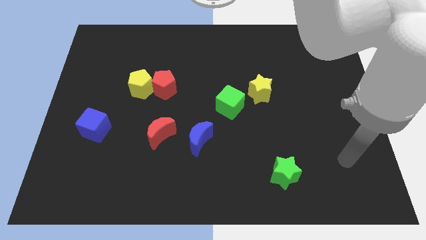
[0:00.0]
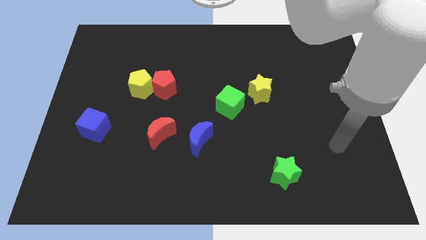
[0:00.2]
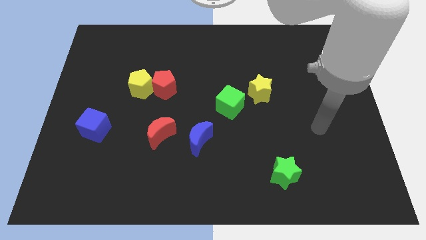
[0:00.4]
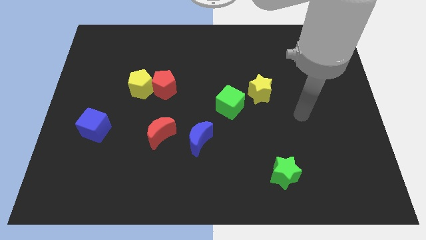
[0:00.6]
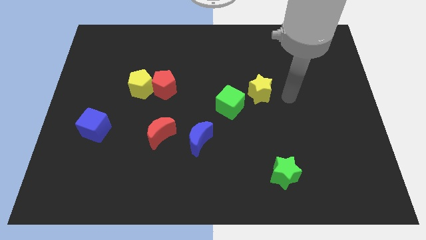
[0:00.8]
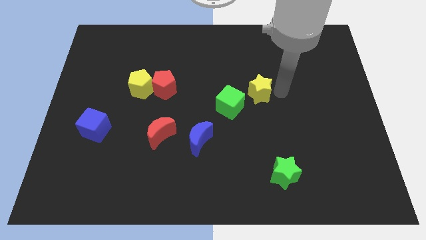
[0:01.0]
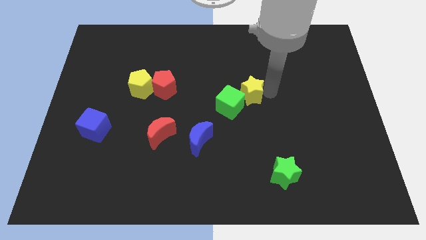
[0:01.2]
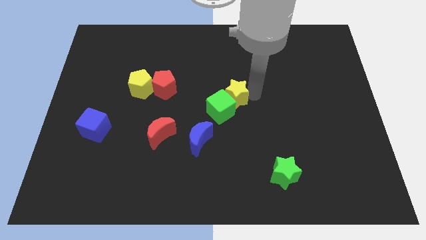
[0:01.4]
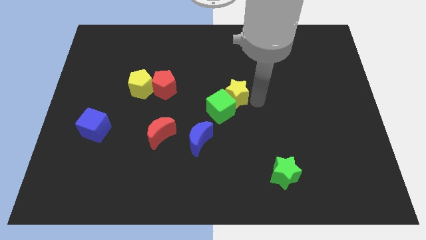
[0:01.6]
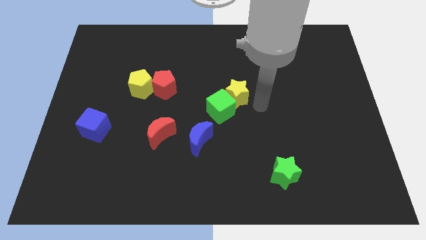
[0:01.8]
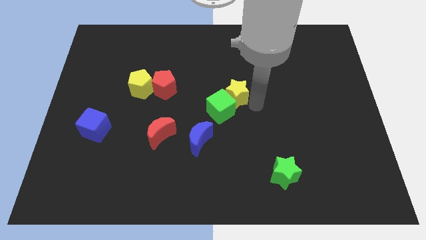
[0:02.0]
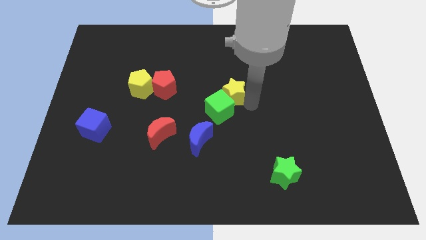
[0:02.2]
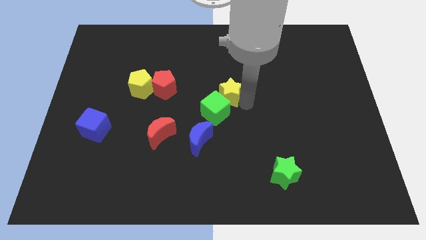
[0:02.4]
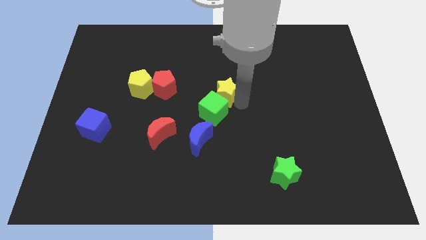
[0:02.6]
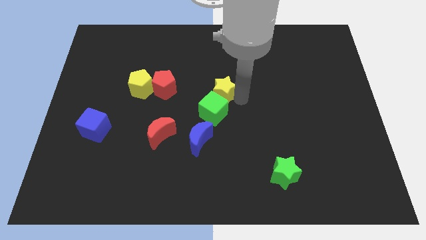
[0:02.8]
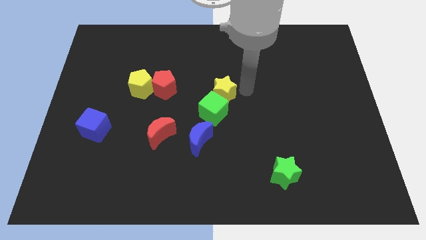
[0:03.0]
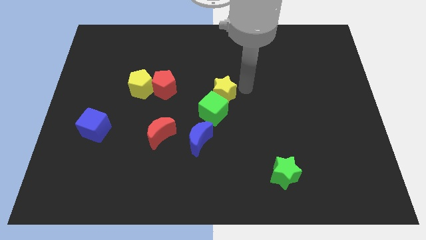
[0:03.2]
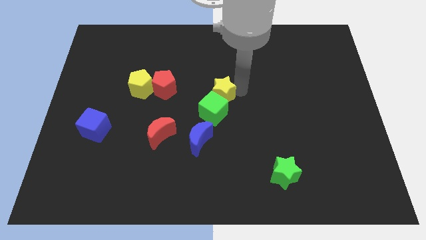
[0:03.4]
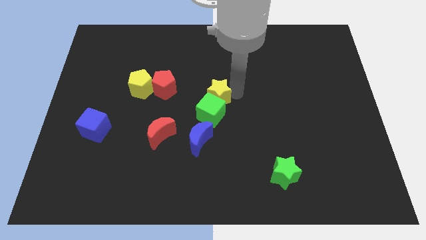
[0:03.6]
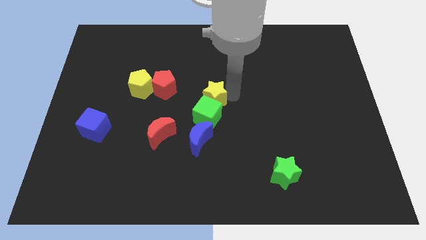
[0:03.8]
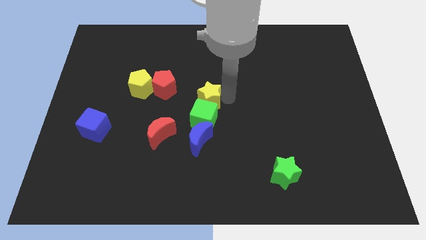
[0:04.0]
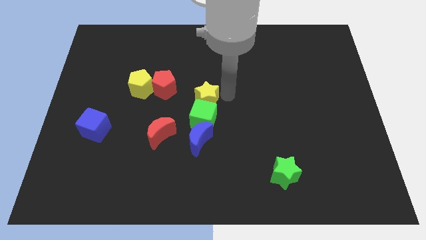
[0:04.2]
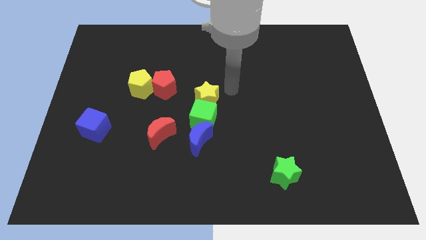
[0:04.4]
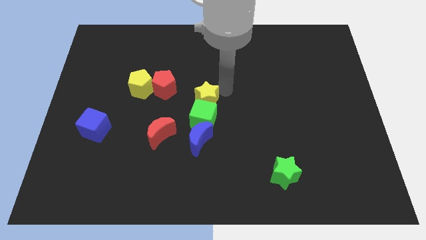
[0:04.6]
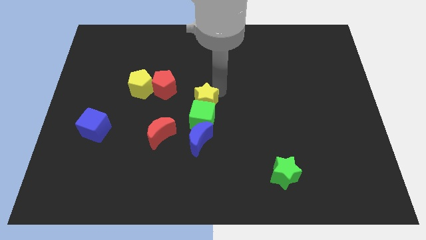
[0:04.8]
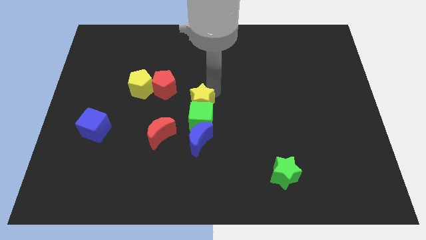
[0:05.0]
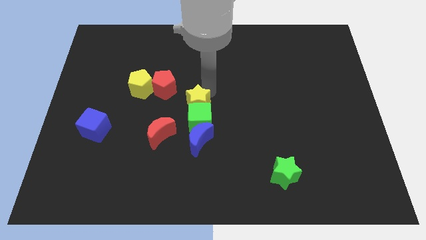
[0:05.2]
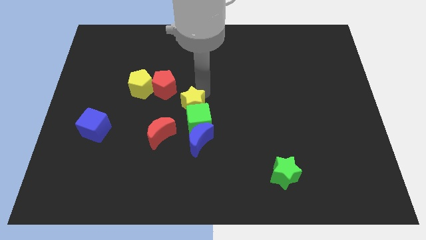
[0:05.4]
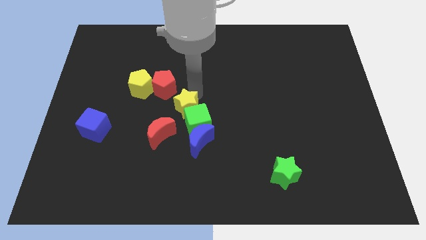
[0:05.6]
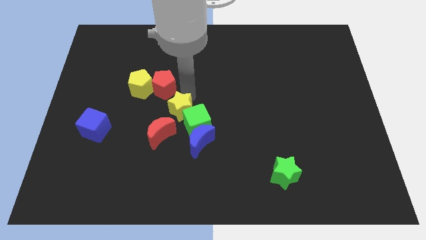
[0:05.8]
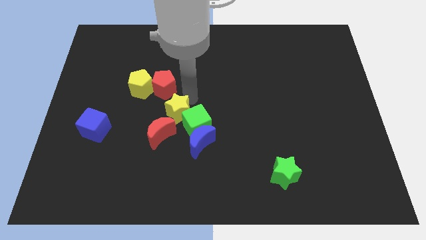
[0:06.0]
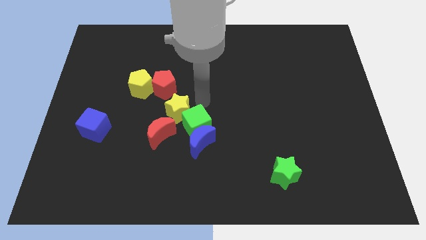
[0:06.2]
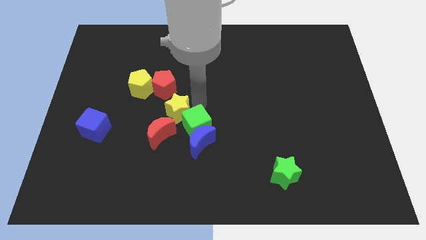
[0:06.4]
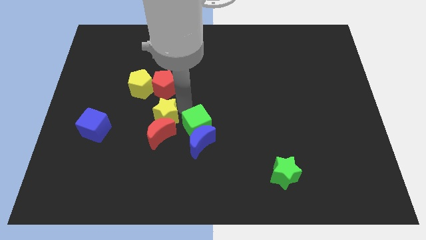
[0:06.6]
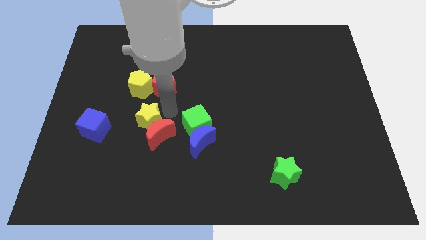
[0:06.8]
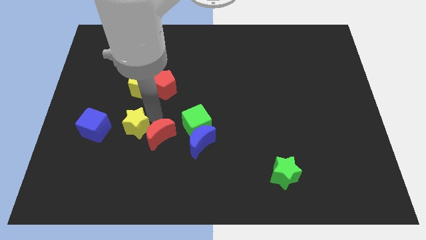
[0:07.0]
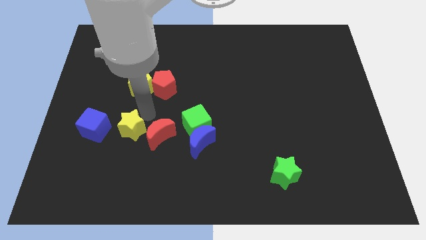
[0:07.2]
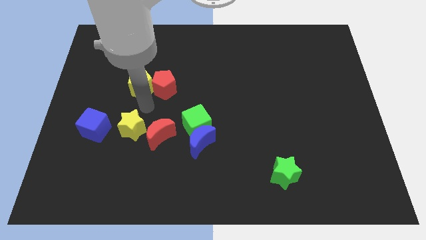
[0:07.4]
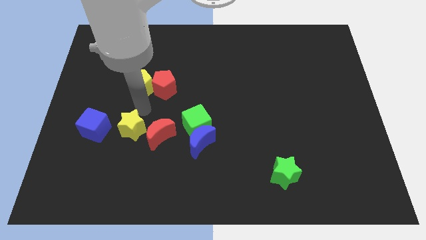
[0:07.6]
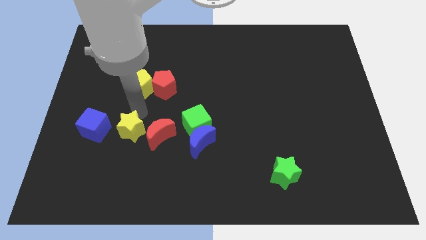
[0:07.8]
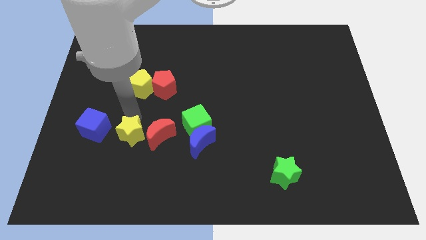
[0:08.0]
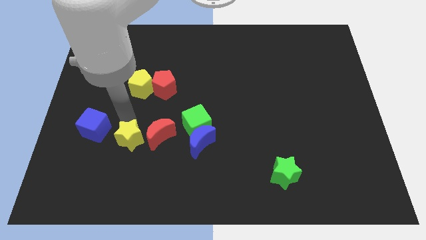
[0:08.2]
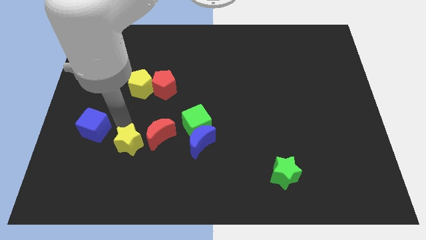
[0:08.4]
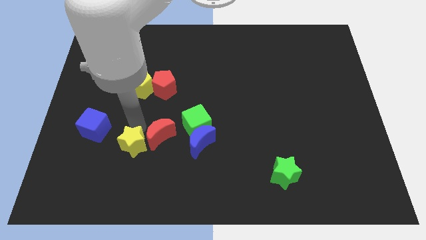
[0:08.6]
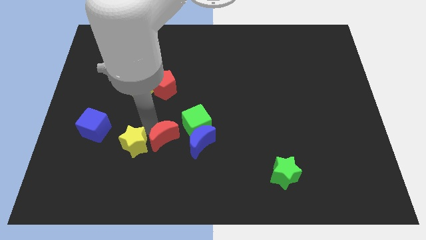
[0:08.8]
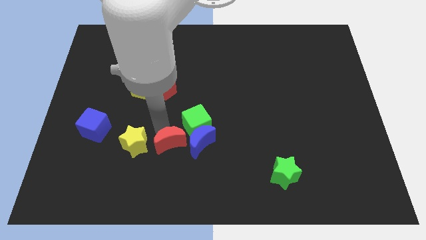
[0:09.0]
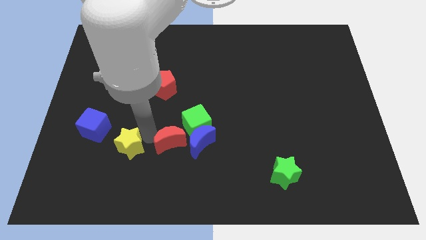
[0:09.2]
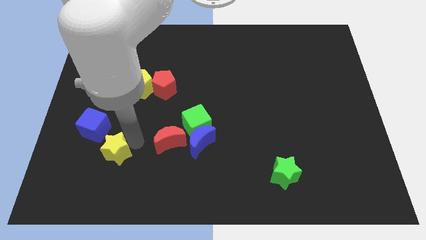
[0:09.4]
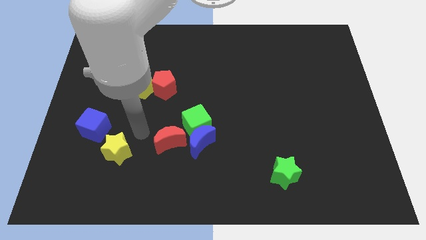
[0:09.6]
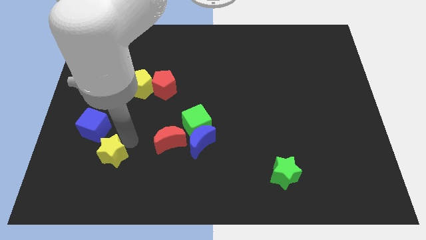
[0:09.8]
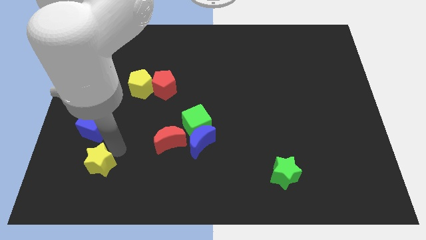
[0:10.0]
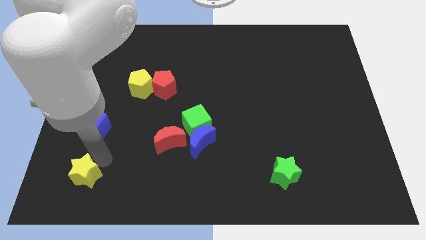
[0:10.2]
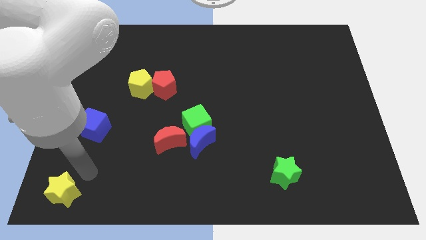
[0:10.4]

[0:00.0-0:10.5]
slide the yellow star to the bottom left corner

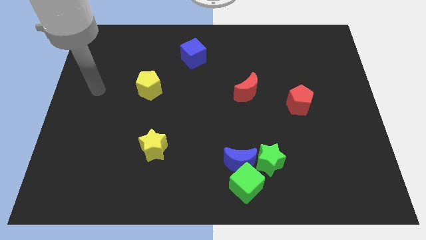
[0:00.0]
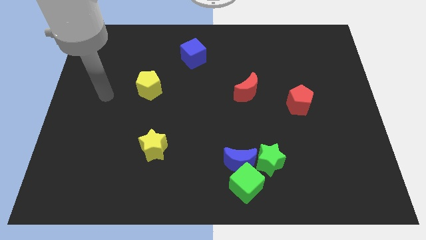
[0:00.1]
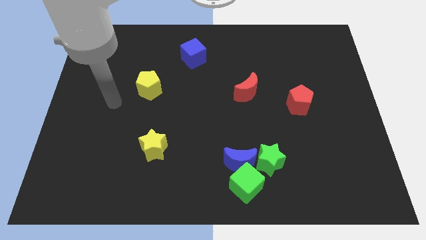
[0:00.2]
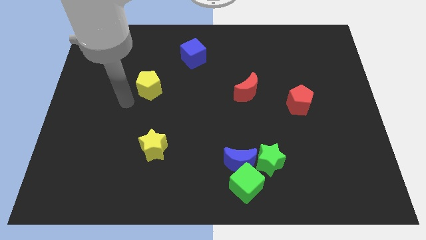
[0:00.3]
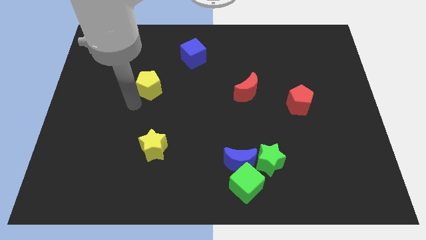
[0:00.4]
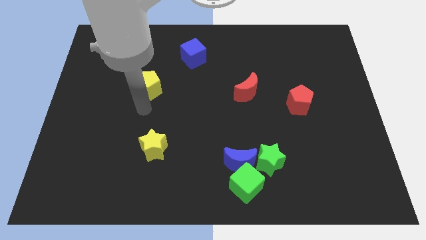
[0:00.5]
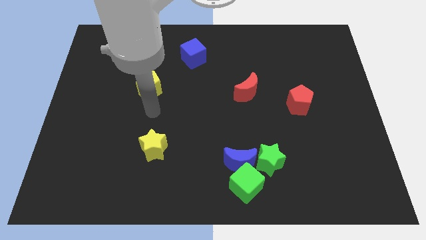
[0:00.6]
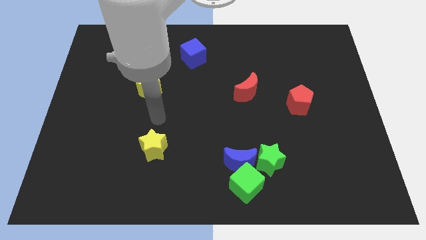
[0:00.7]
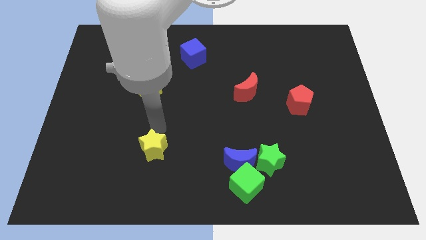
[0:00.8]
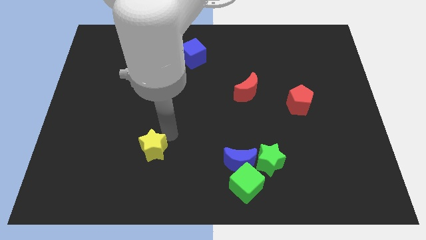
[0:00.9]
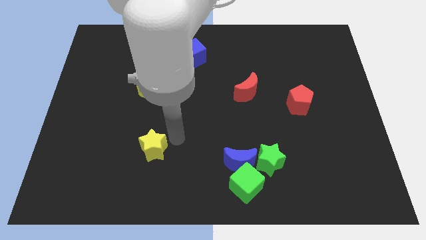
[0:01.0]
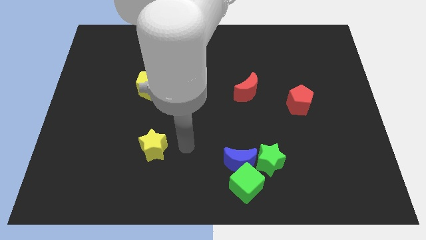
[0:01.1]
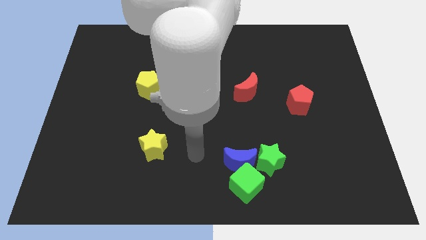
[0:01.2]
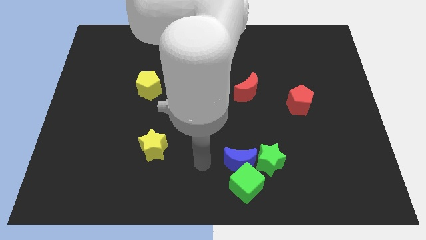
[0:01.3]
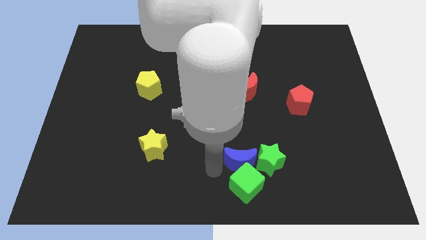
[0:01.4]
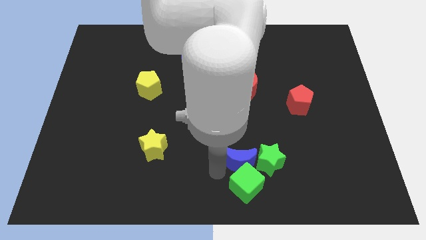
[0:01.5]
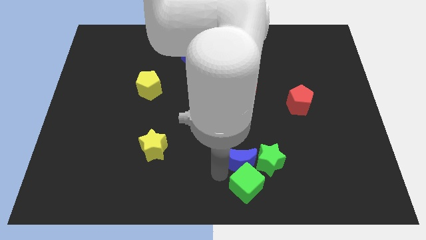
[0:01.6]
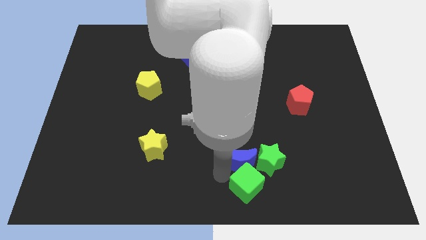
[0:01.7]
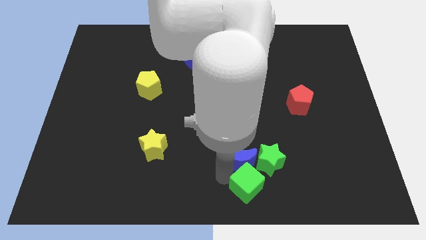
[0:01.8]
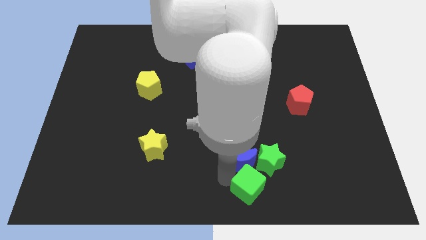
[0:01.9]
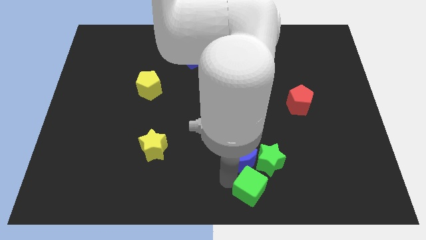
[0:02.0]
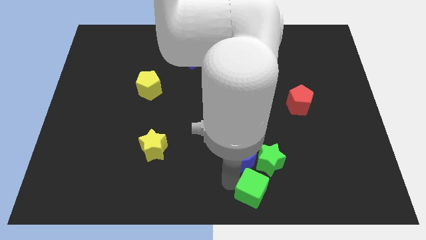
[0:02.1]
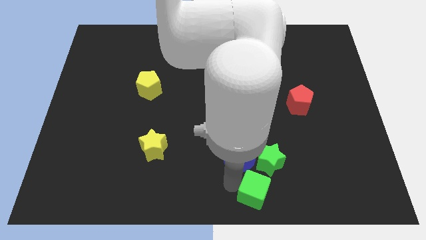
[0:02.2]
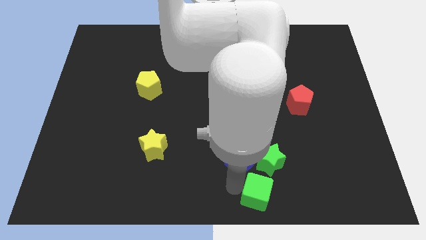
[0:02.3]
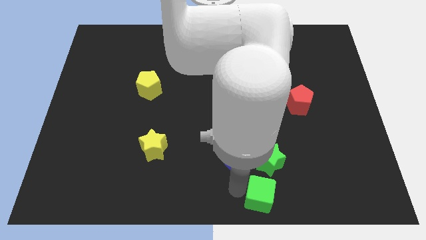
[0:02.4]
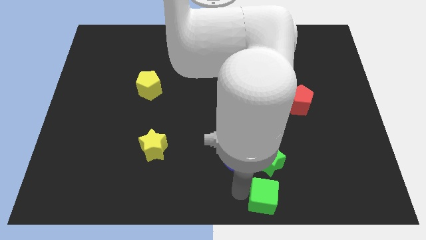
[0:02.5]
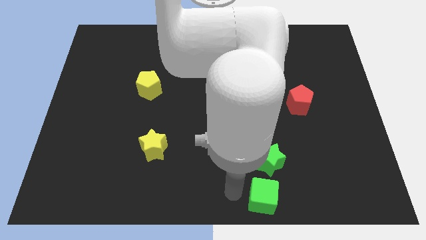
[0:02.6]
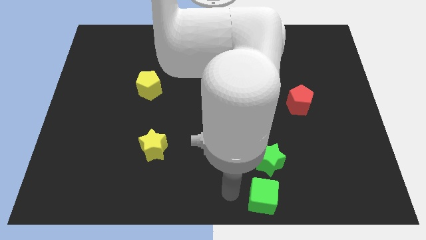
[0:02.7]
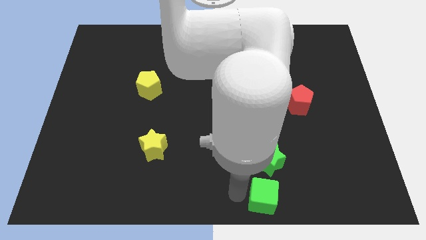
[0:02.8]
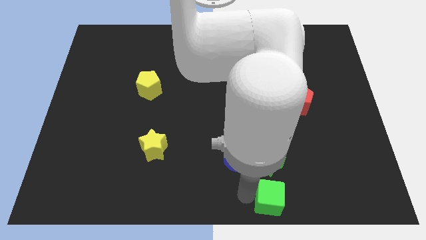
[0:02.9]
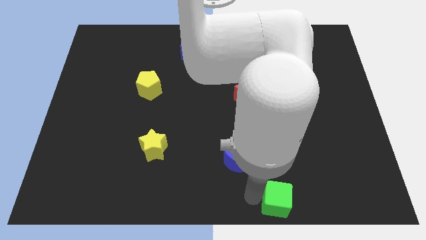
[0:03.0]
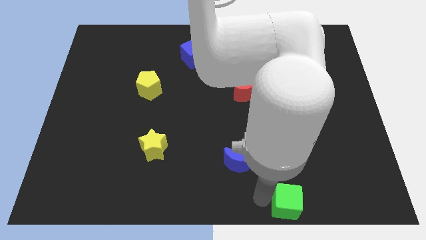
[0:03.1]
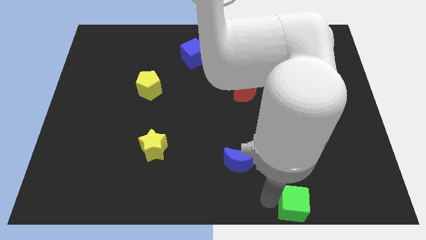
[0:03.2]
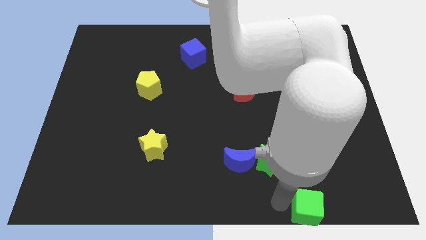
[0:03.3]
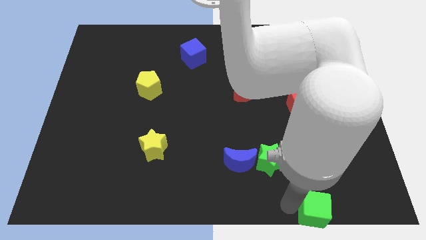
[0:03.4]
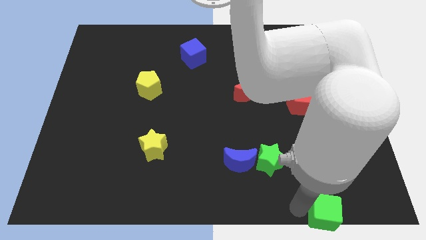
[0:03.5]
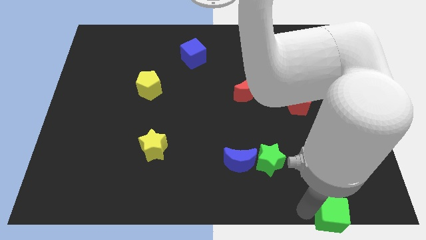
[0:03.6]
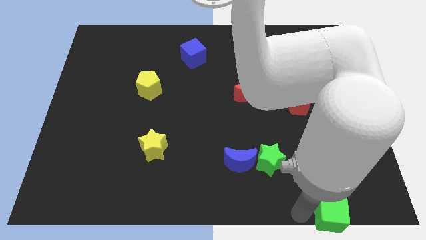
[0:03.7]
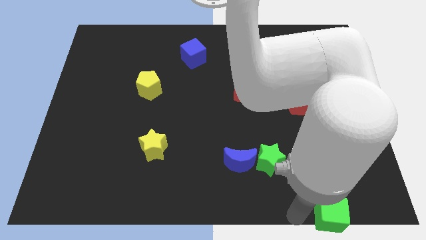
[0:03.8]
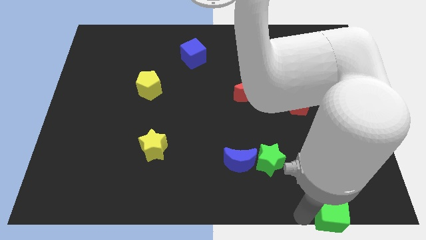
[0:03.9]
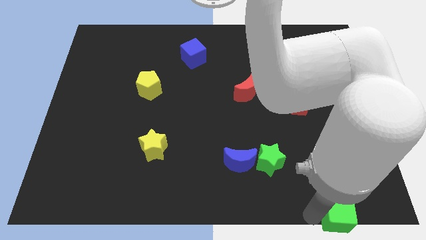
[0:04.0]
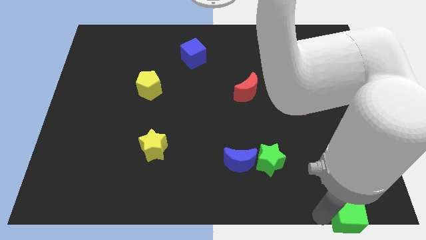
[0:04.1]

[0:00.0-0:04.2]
slide the green cube to the bottom right
